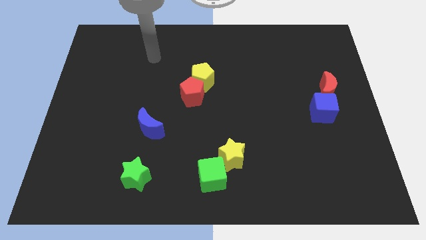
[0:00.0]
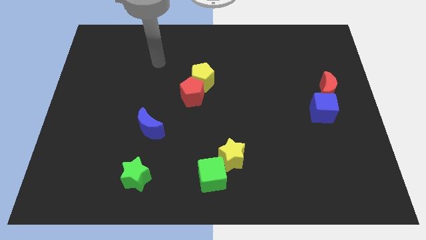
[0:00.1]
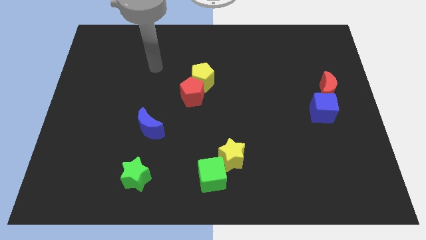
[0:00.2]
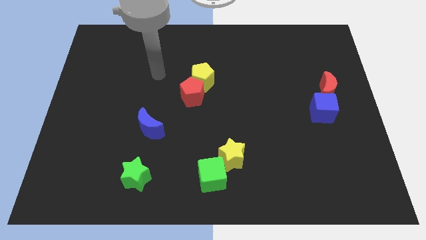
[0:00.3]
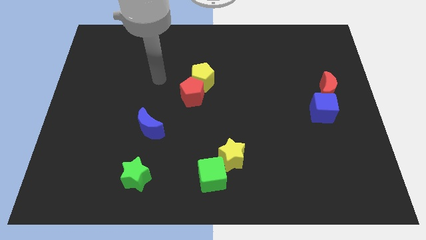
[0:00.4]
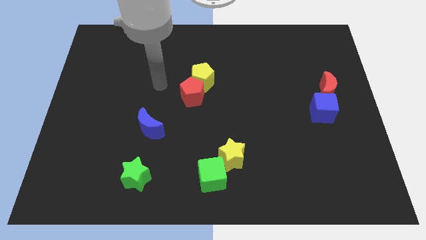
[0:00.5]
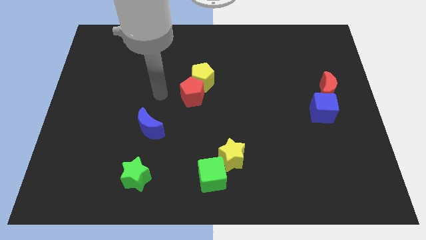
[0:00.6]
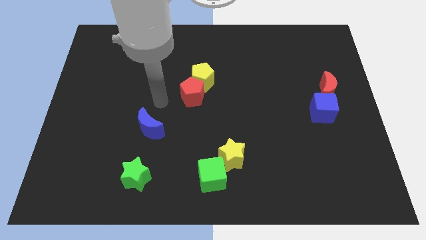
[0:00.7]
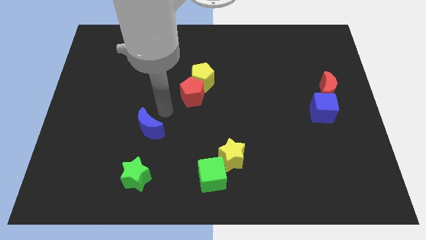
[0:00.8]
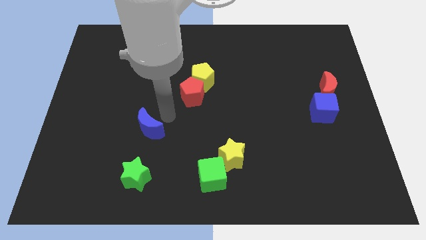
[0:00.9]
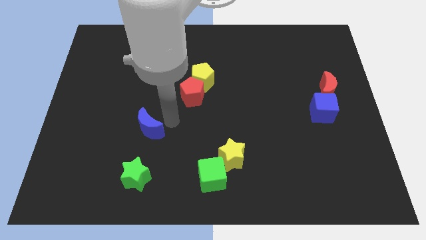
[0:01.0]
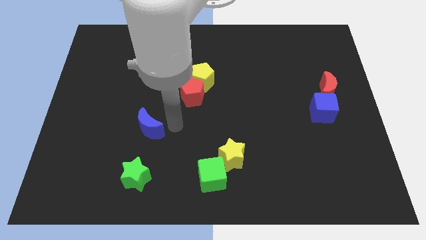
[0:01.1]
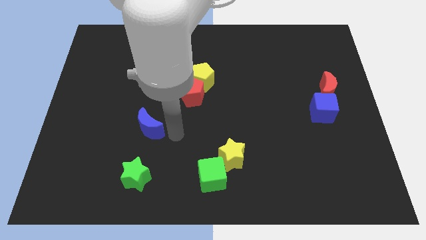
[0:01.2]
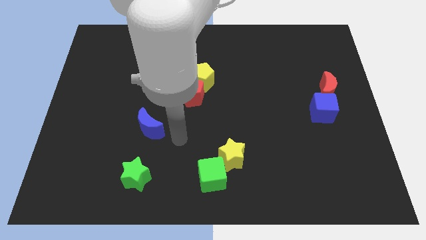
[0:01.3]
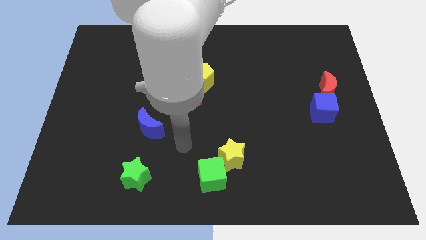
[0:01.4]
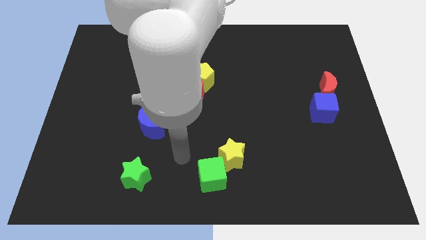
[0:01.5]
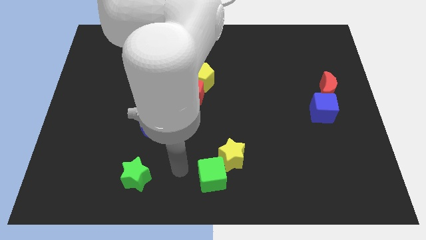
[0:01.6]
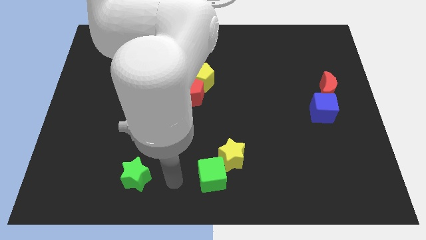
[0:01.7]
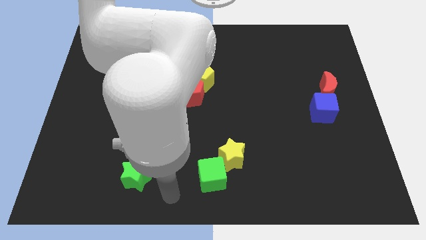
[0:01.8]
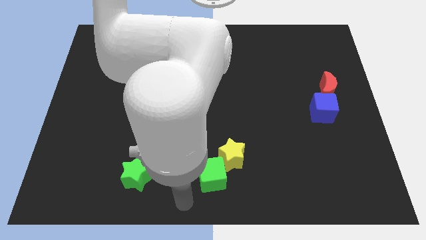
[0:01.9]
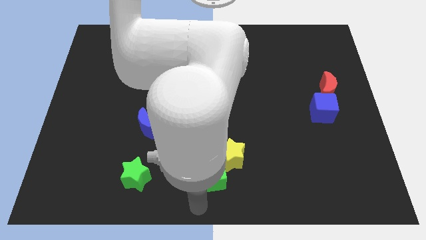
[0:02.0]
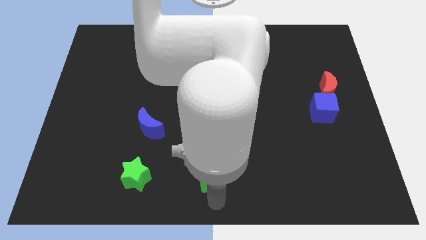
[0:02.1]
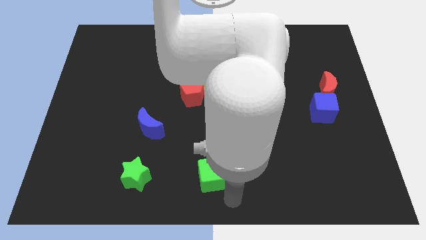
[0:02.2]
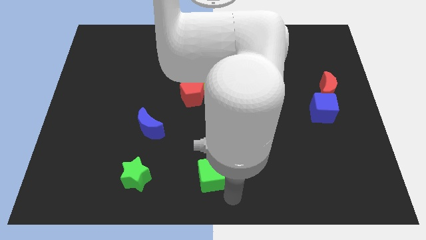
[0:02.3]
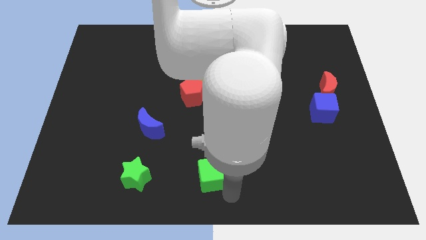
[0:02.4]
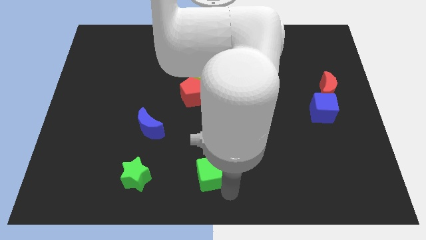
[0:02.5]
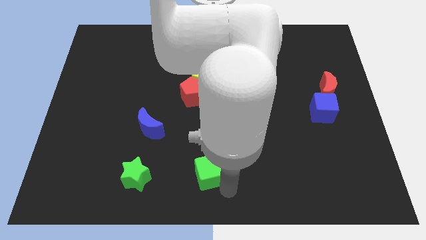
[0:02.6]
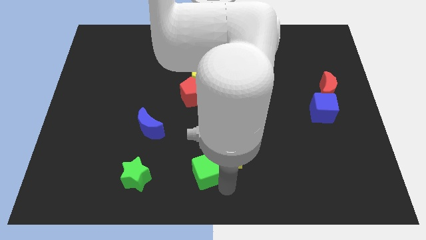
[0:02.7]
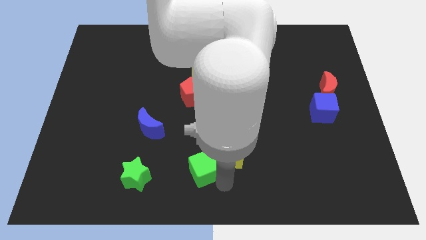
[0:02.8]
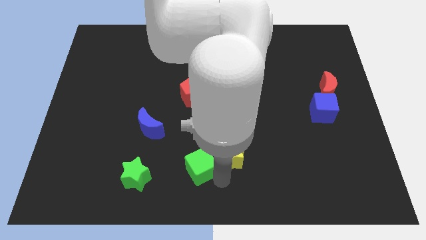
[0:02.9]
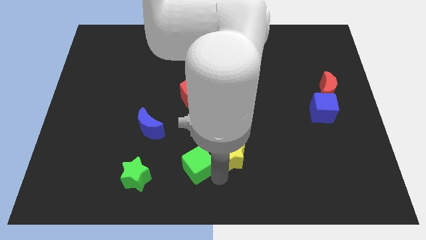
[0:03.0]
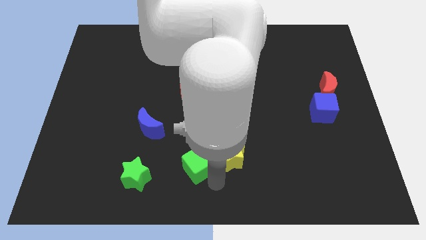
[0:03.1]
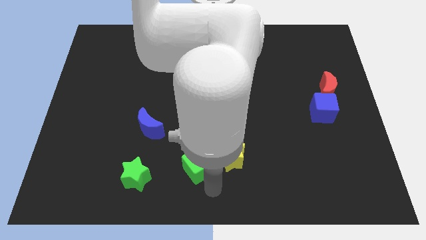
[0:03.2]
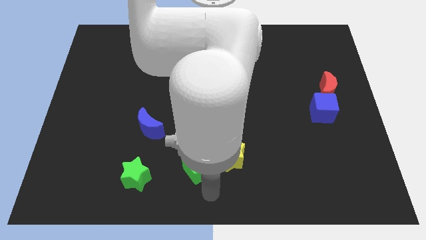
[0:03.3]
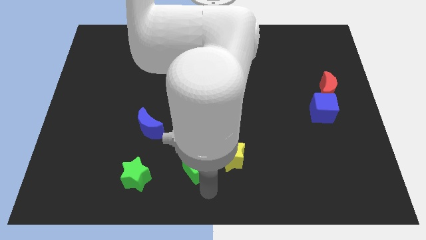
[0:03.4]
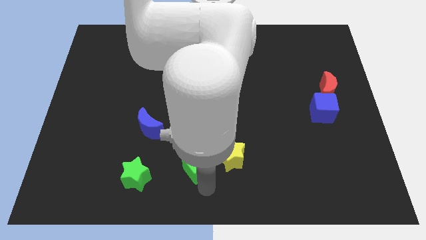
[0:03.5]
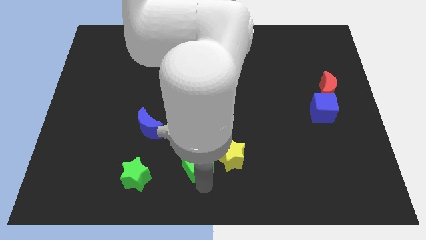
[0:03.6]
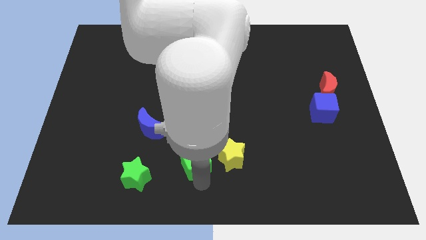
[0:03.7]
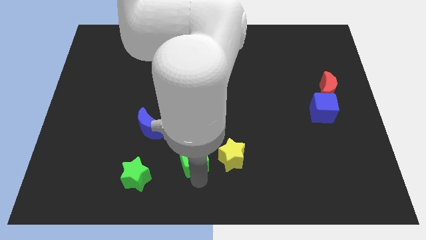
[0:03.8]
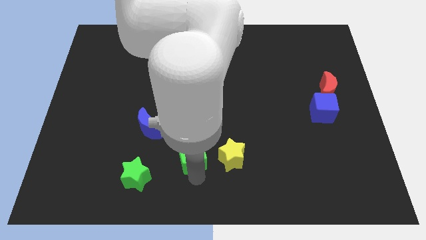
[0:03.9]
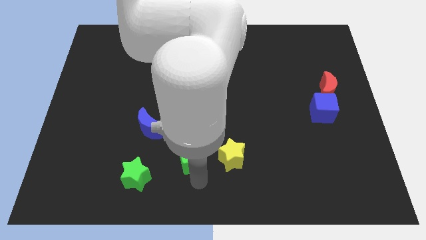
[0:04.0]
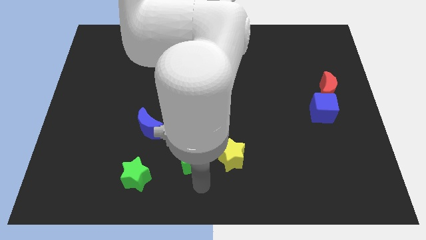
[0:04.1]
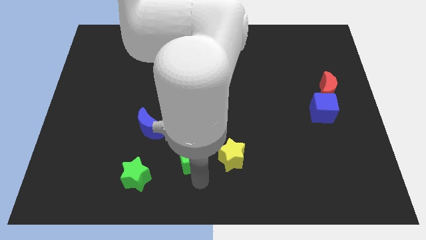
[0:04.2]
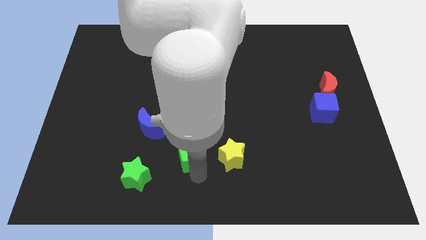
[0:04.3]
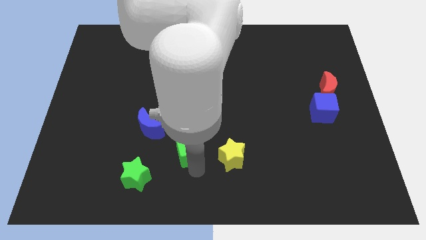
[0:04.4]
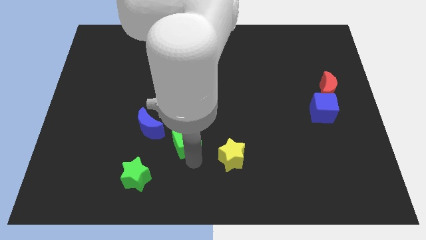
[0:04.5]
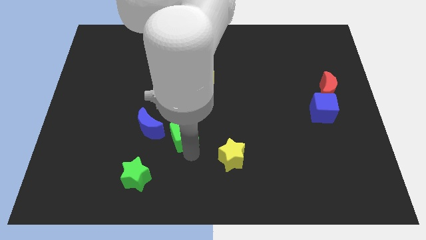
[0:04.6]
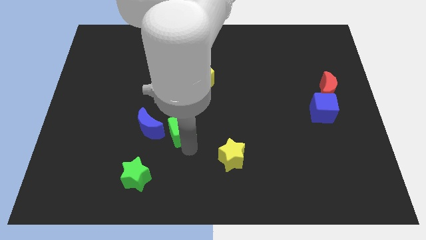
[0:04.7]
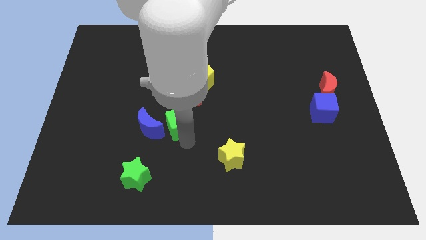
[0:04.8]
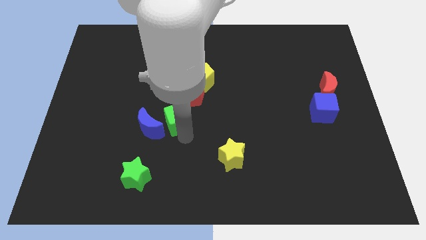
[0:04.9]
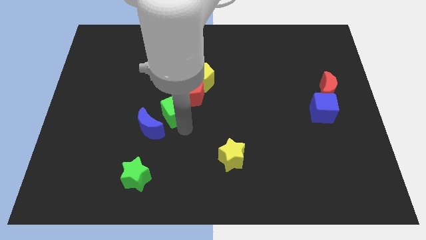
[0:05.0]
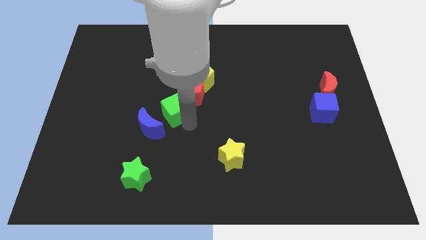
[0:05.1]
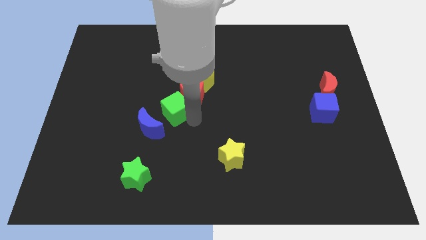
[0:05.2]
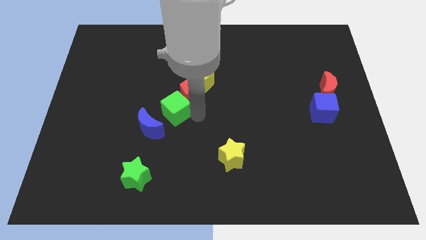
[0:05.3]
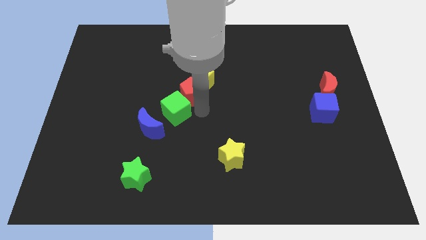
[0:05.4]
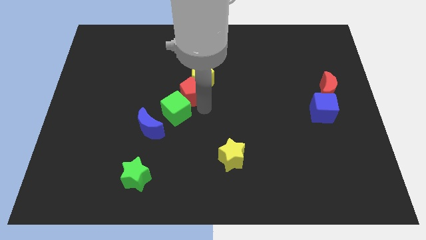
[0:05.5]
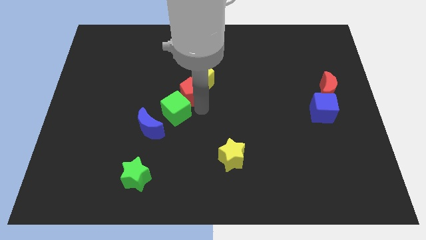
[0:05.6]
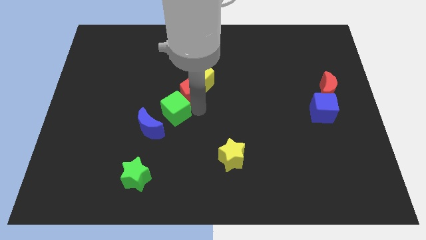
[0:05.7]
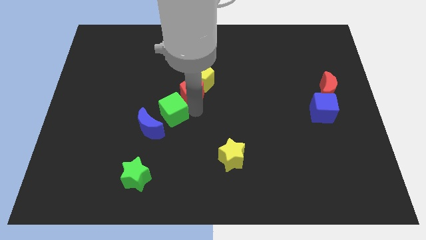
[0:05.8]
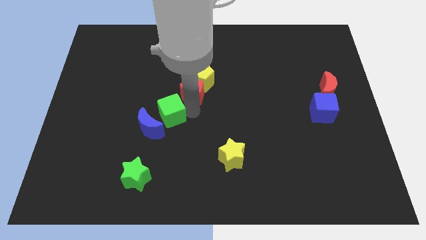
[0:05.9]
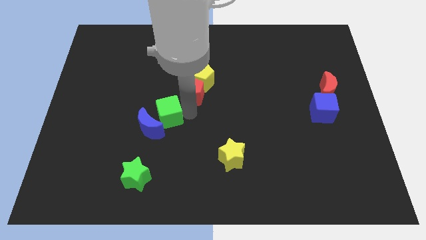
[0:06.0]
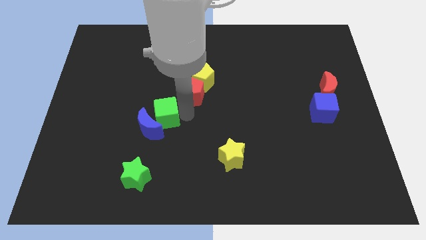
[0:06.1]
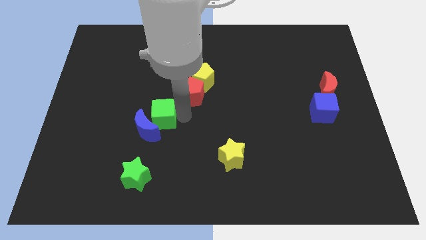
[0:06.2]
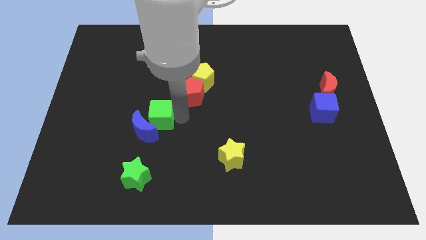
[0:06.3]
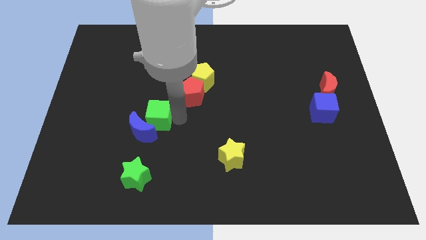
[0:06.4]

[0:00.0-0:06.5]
move the green cube to the top side of the green star

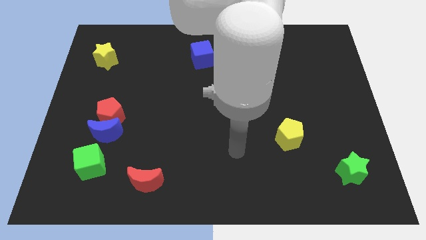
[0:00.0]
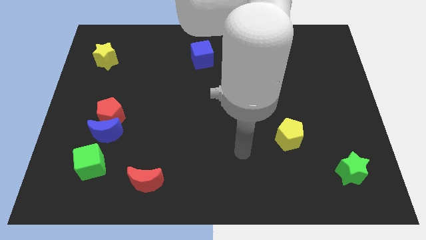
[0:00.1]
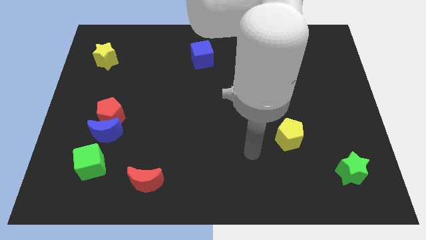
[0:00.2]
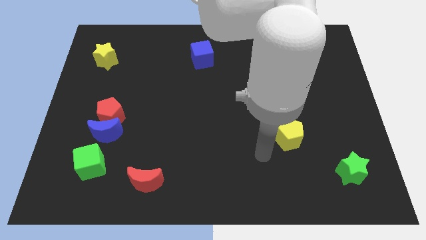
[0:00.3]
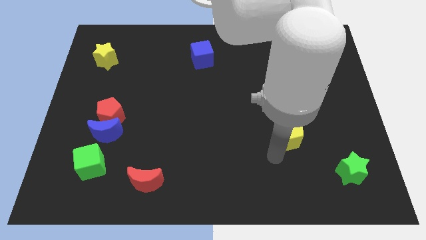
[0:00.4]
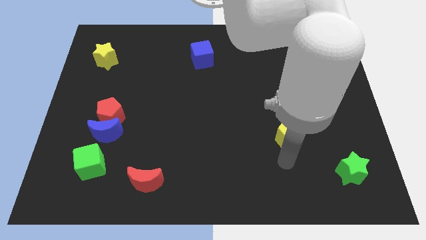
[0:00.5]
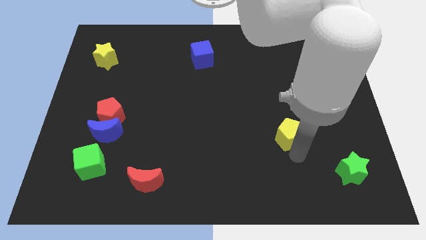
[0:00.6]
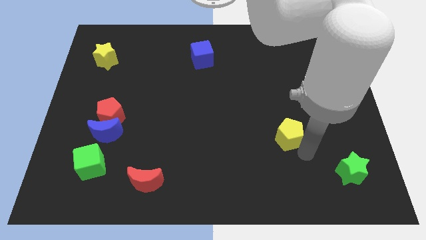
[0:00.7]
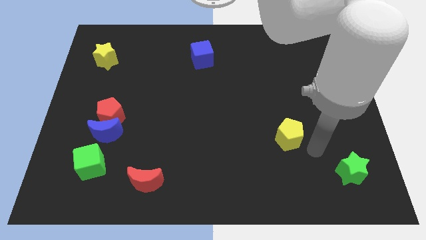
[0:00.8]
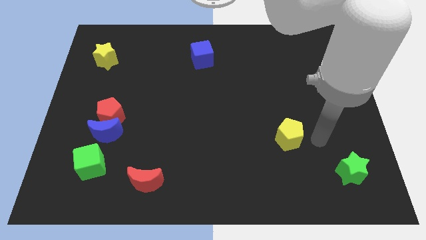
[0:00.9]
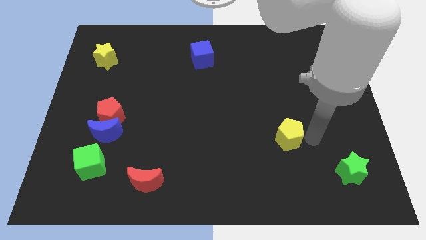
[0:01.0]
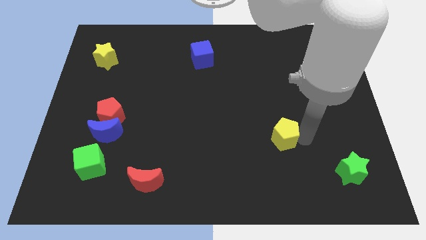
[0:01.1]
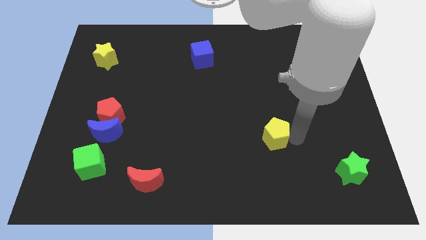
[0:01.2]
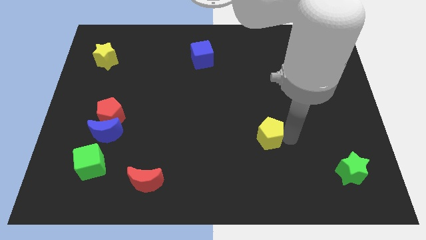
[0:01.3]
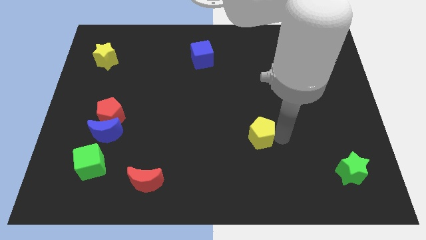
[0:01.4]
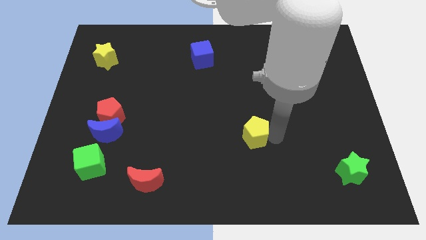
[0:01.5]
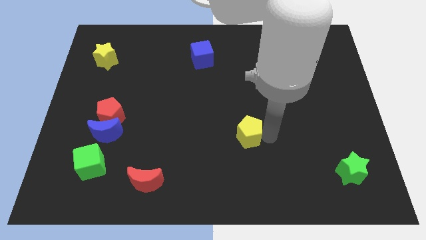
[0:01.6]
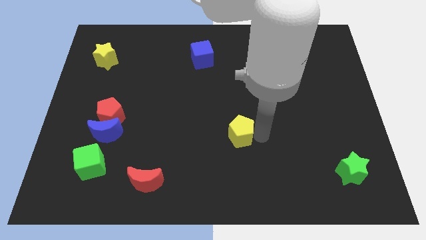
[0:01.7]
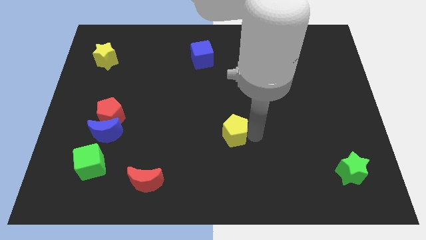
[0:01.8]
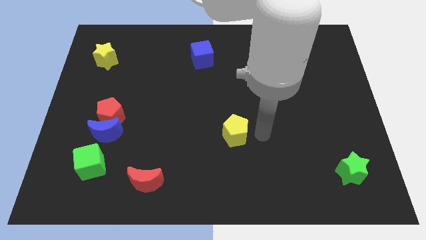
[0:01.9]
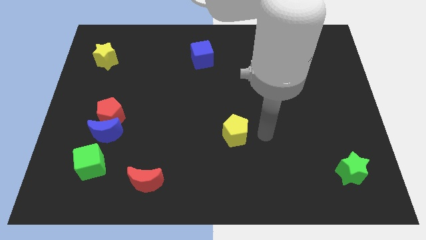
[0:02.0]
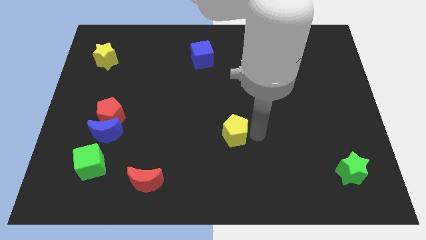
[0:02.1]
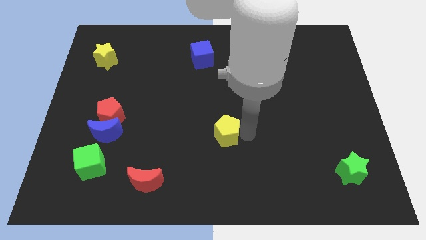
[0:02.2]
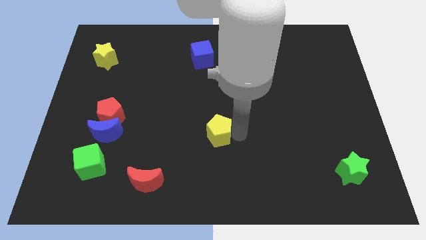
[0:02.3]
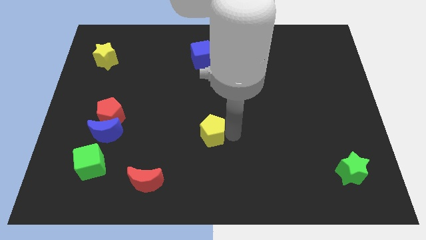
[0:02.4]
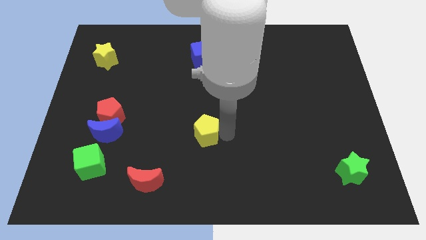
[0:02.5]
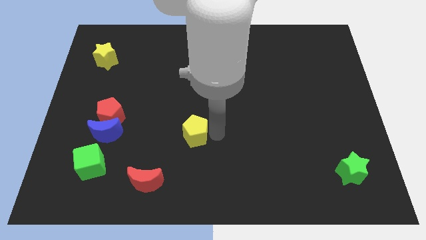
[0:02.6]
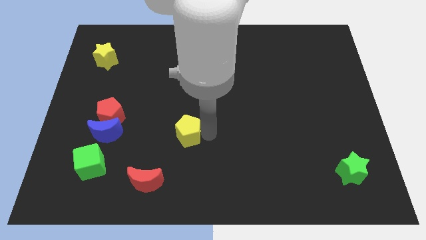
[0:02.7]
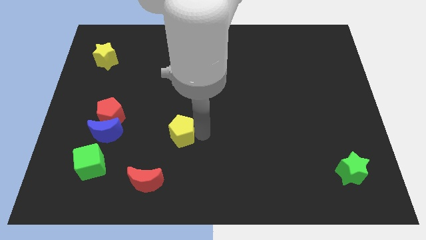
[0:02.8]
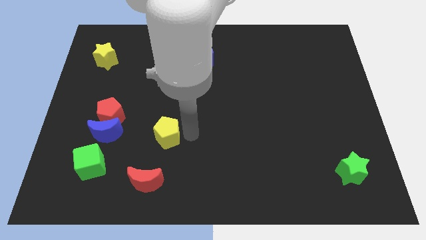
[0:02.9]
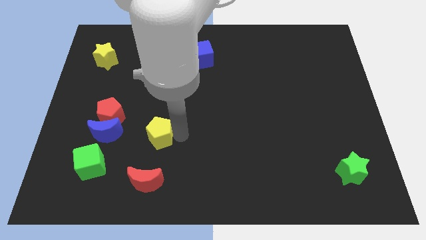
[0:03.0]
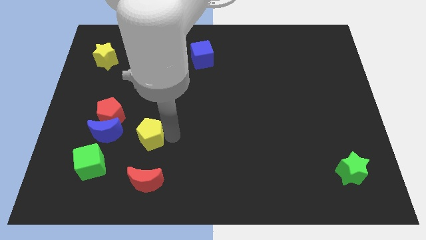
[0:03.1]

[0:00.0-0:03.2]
push the yellow pentagon to the bottom right of the red pentagon
